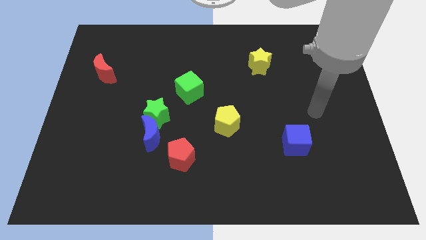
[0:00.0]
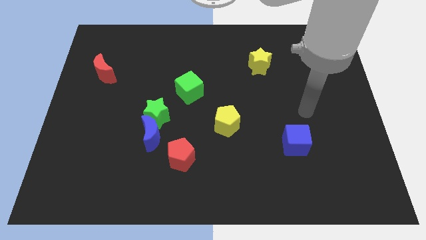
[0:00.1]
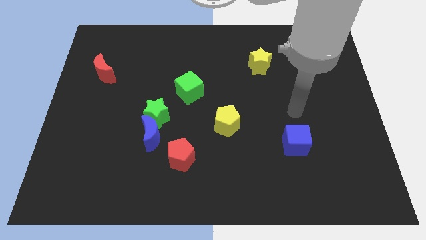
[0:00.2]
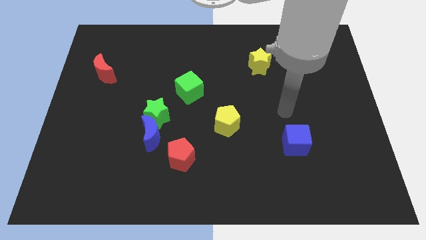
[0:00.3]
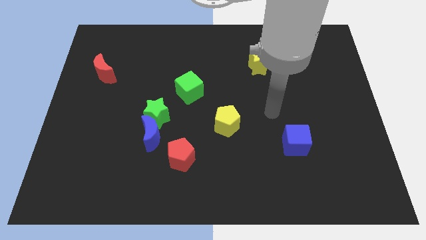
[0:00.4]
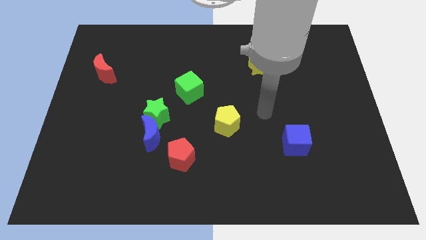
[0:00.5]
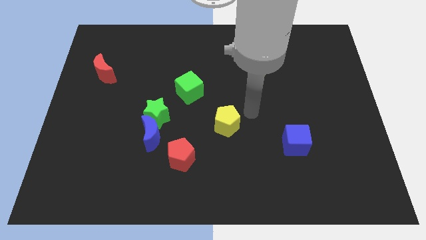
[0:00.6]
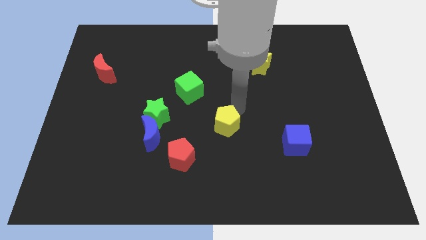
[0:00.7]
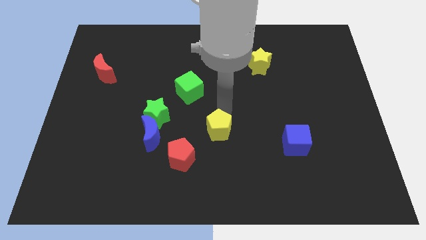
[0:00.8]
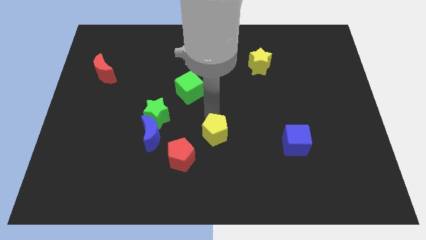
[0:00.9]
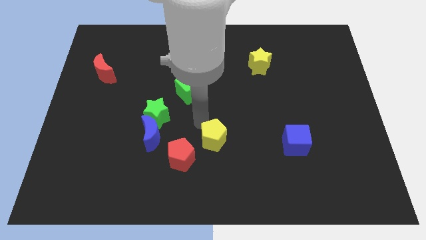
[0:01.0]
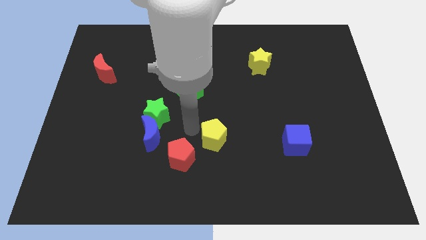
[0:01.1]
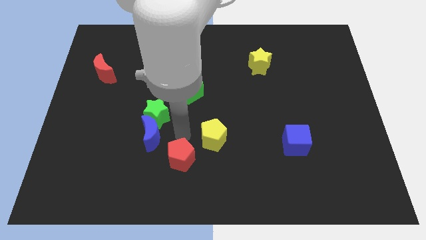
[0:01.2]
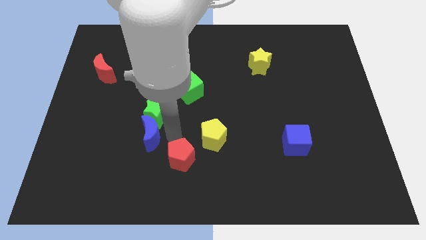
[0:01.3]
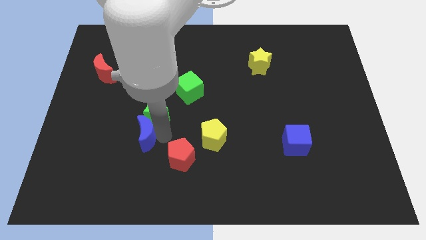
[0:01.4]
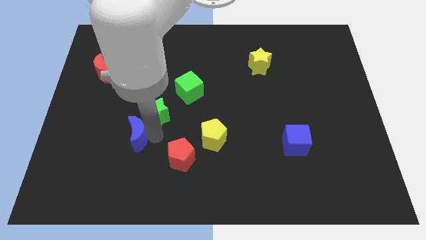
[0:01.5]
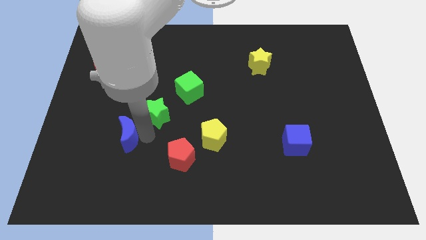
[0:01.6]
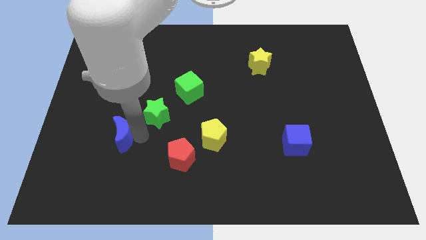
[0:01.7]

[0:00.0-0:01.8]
pull the blue moon apart from the green star and red pentagon

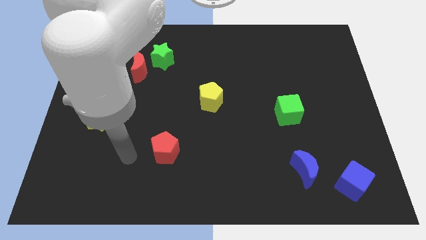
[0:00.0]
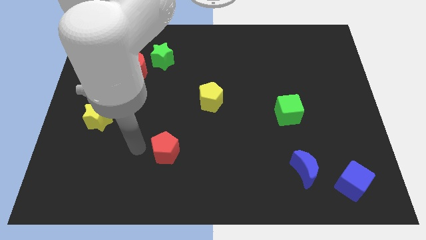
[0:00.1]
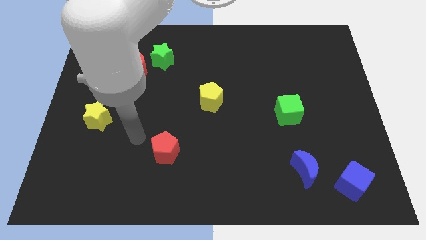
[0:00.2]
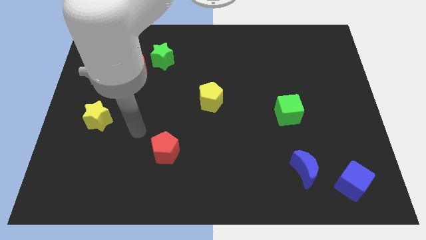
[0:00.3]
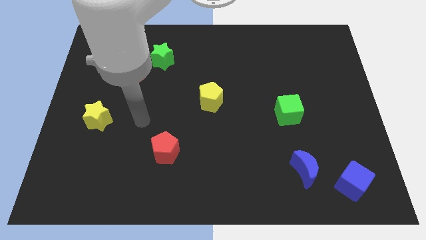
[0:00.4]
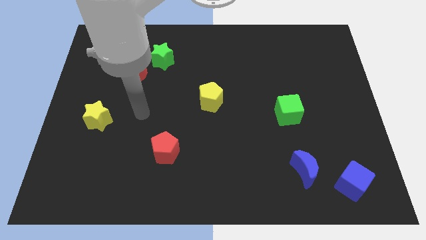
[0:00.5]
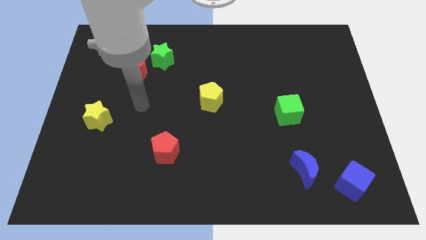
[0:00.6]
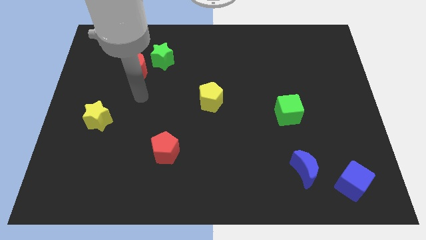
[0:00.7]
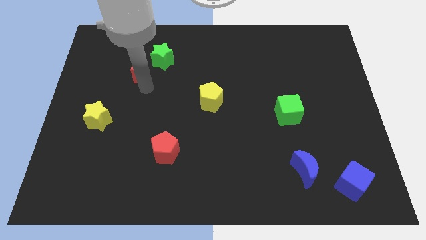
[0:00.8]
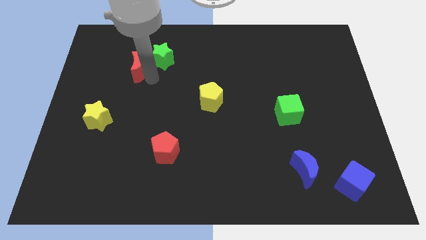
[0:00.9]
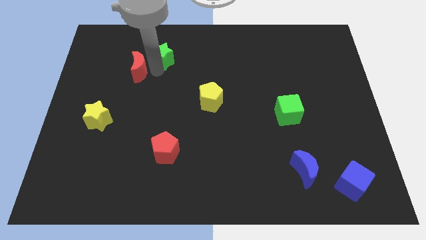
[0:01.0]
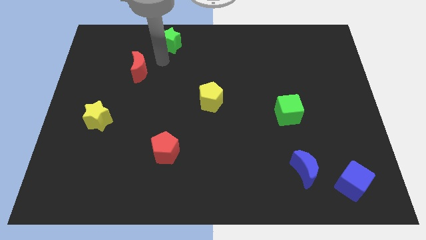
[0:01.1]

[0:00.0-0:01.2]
move the red moon away from the green star

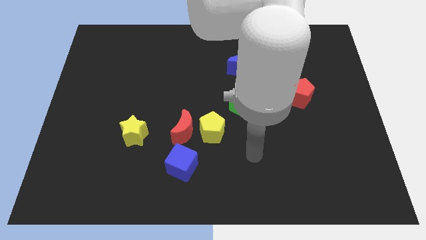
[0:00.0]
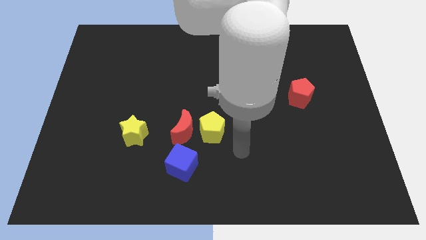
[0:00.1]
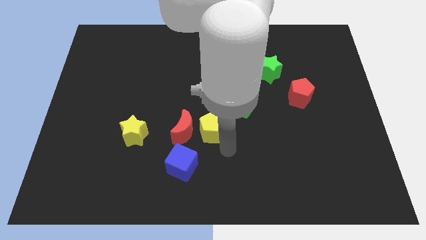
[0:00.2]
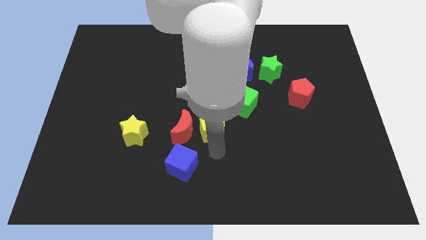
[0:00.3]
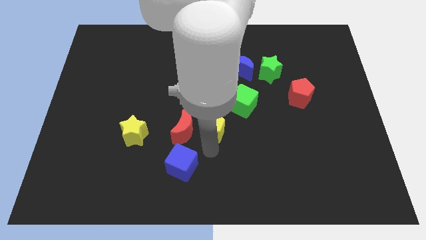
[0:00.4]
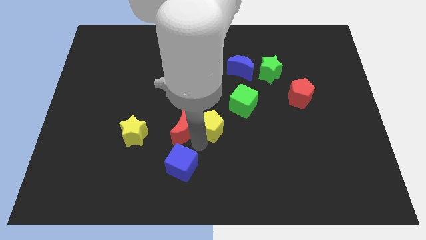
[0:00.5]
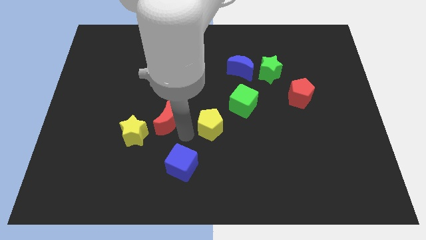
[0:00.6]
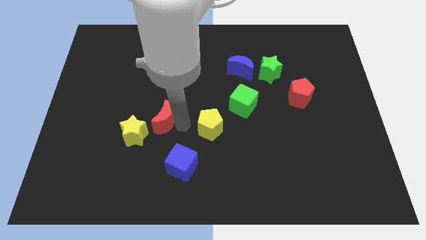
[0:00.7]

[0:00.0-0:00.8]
pull the yellow pentagon apart from the red moon

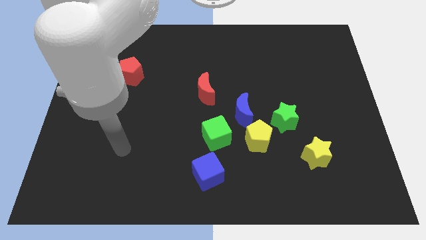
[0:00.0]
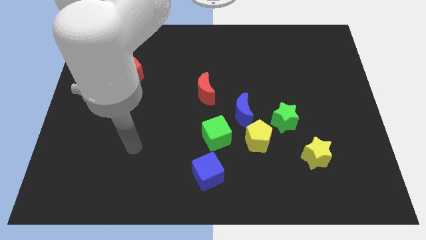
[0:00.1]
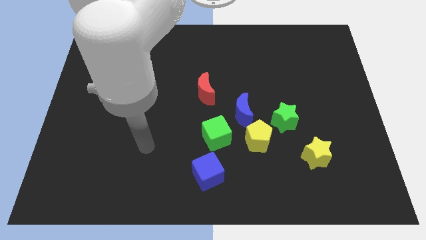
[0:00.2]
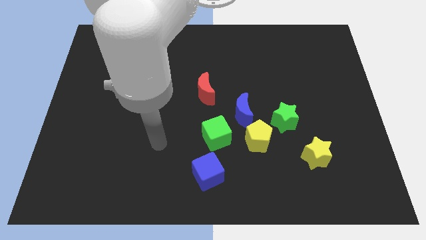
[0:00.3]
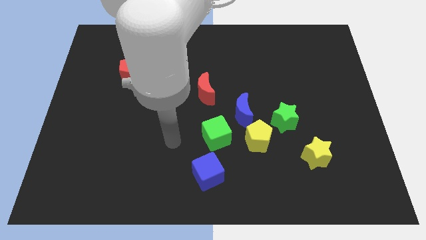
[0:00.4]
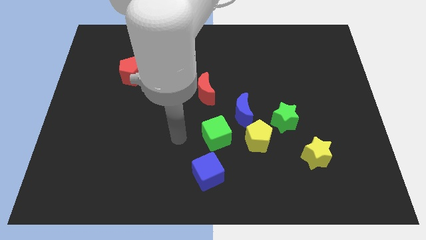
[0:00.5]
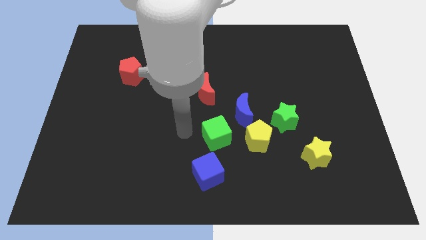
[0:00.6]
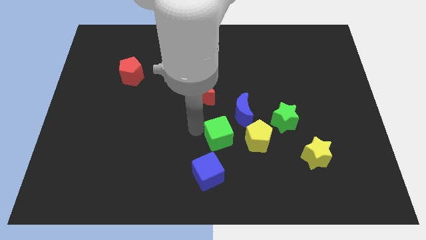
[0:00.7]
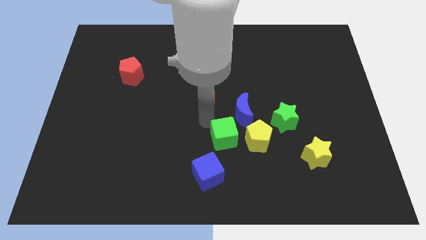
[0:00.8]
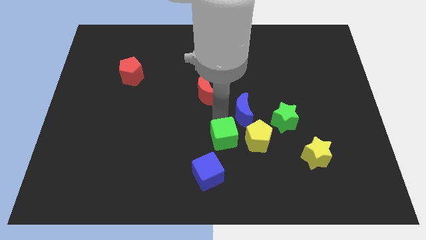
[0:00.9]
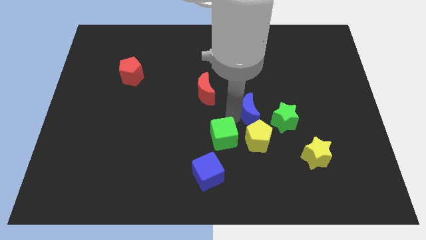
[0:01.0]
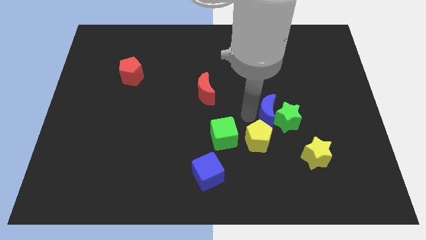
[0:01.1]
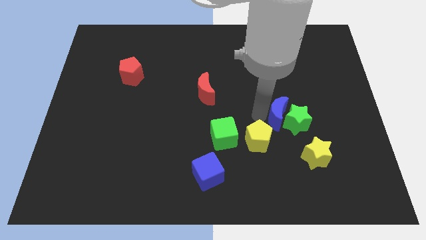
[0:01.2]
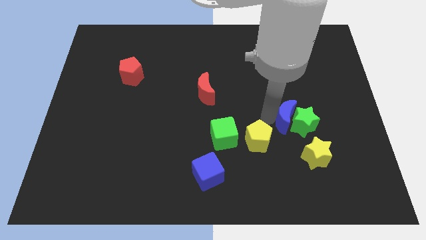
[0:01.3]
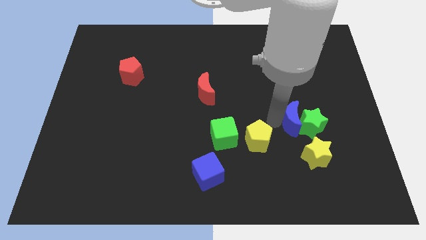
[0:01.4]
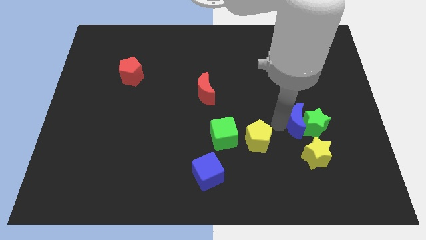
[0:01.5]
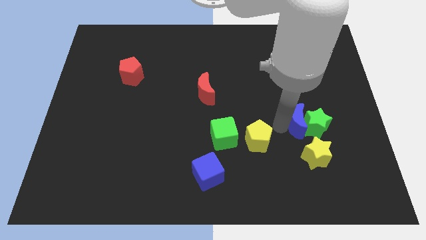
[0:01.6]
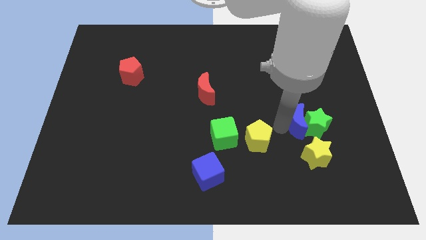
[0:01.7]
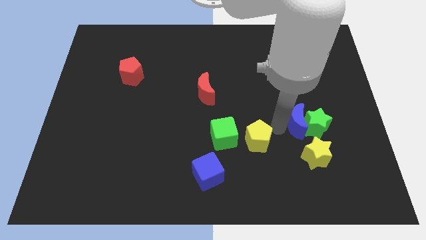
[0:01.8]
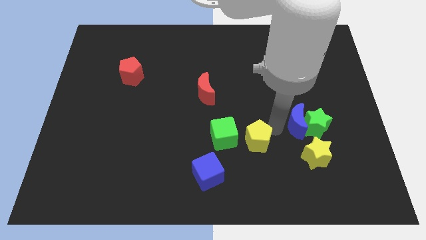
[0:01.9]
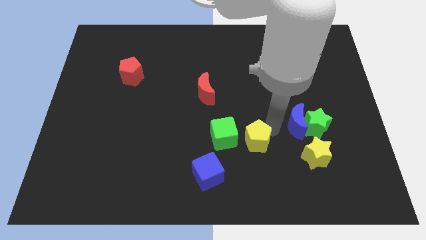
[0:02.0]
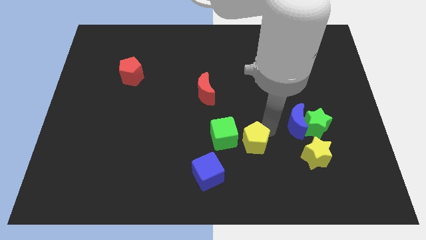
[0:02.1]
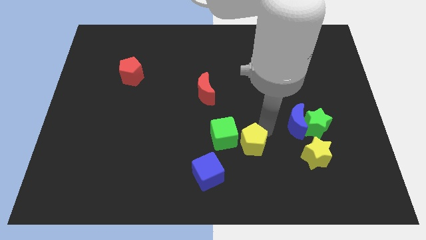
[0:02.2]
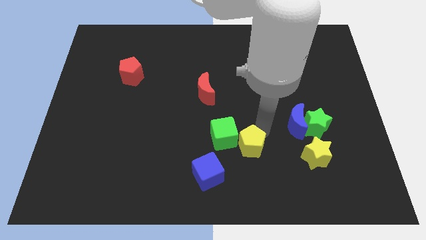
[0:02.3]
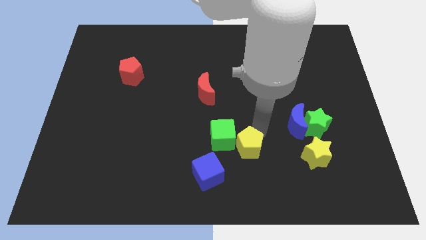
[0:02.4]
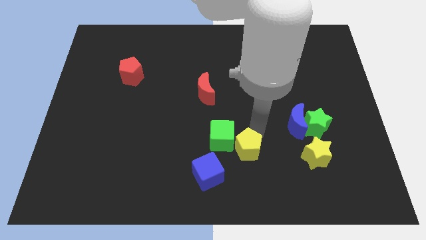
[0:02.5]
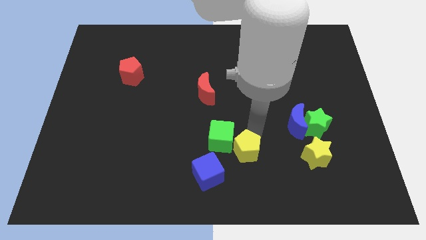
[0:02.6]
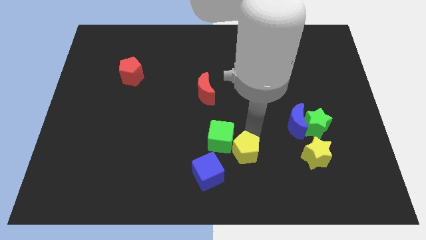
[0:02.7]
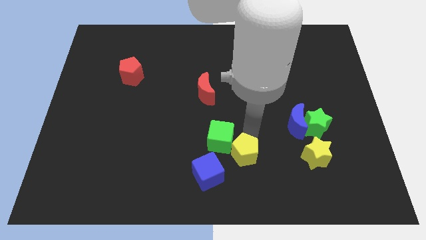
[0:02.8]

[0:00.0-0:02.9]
pull the yellow pentagon apart from the group

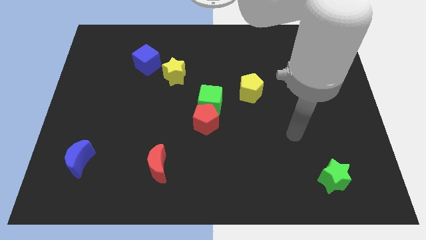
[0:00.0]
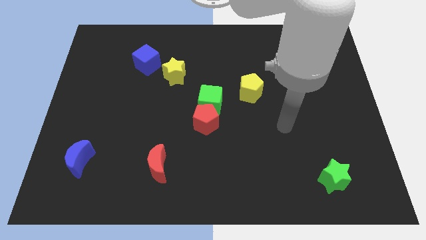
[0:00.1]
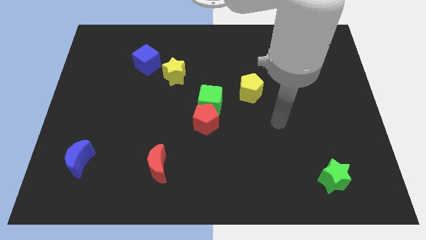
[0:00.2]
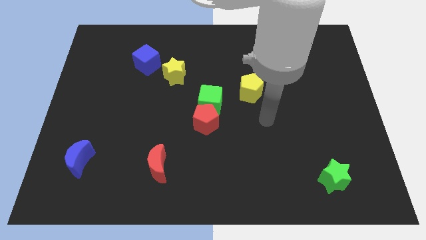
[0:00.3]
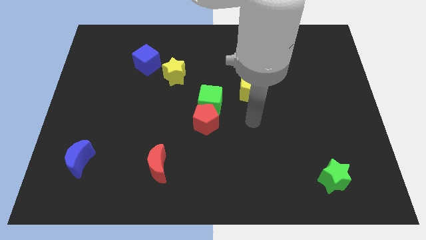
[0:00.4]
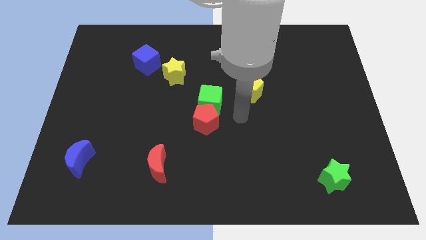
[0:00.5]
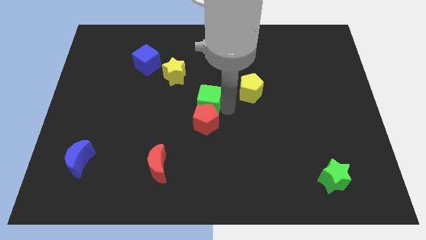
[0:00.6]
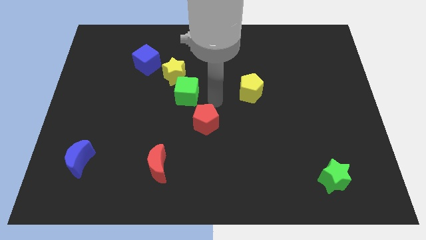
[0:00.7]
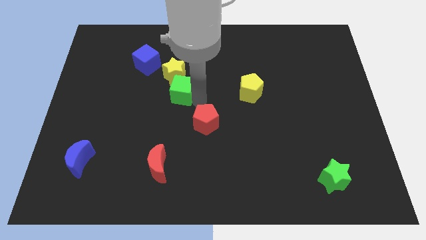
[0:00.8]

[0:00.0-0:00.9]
separate the red pentagon from the green cube

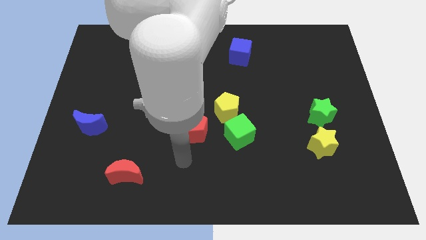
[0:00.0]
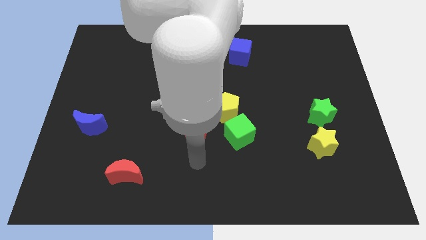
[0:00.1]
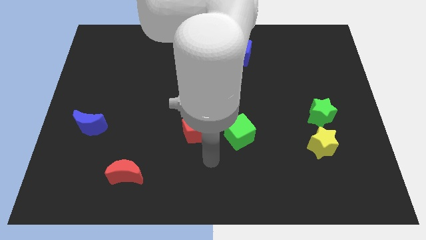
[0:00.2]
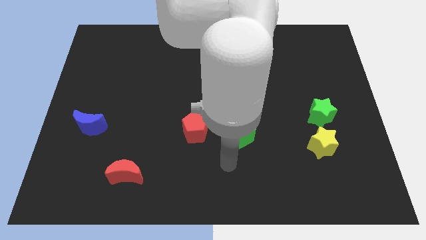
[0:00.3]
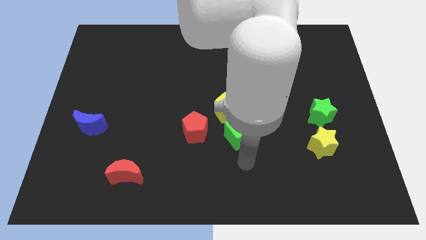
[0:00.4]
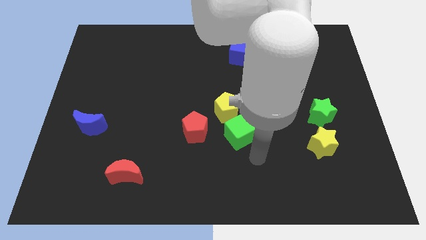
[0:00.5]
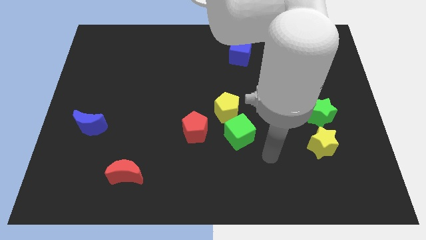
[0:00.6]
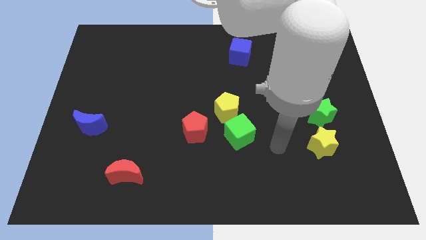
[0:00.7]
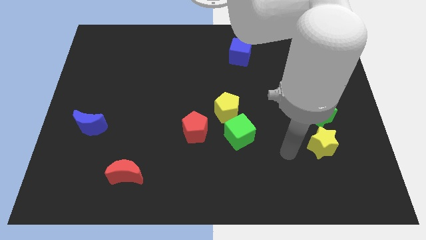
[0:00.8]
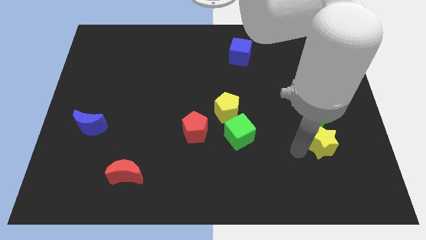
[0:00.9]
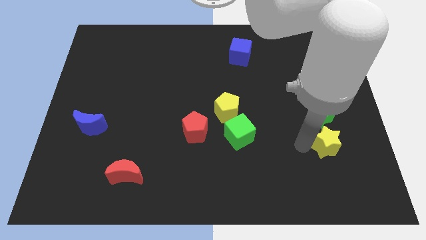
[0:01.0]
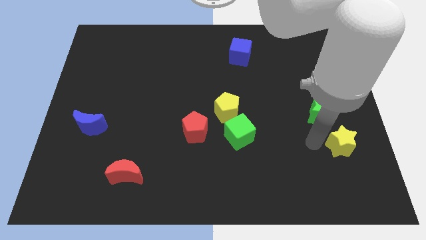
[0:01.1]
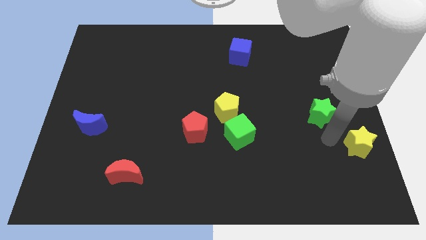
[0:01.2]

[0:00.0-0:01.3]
separate the green star from the yellow star

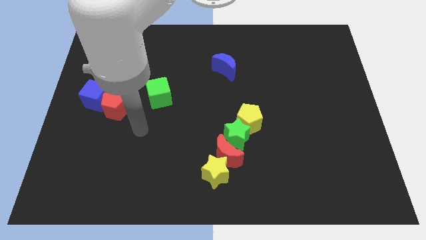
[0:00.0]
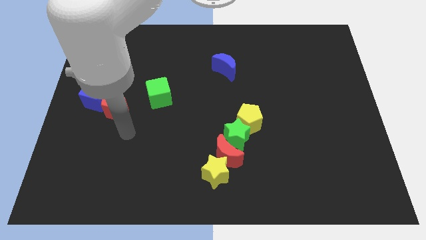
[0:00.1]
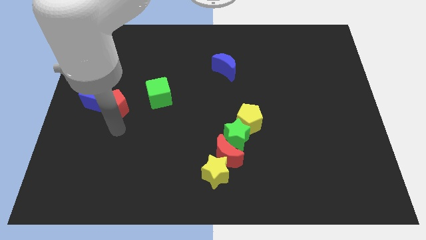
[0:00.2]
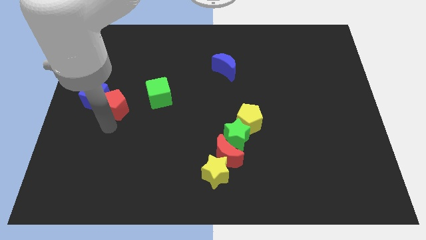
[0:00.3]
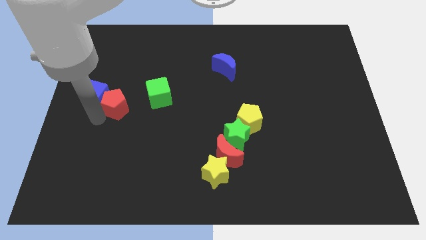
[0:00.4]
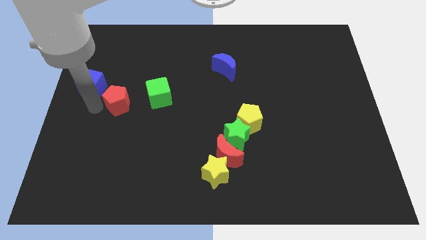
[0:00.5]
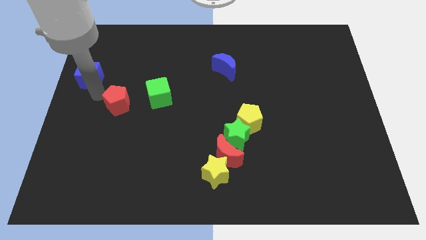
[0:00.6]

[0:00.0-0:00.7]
pull the red pentagon apart from the blue cube
